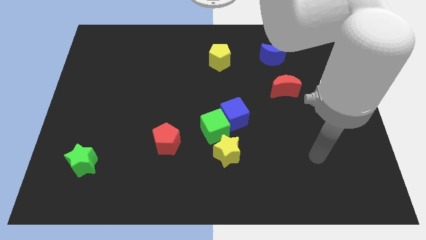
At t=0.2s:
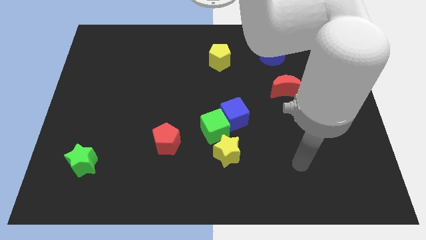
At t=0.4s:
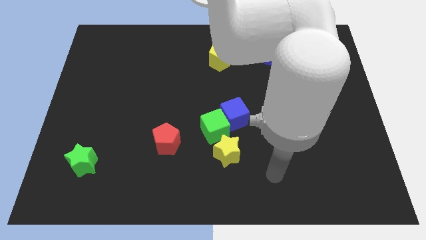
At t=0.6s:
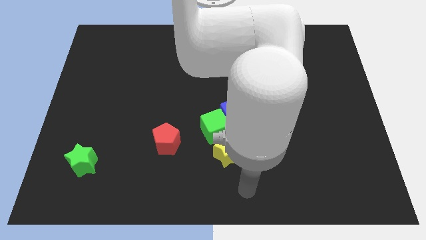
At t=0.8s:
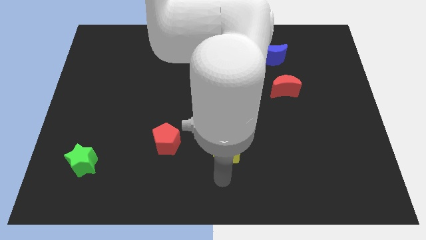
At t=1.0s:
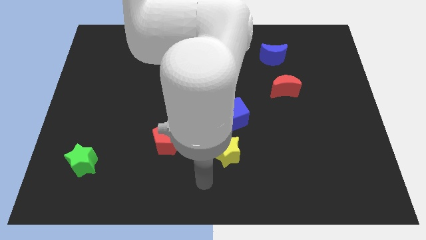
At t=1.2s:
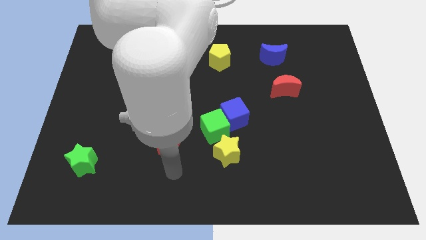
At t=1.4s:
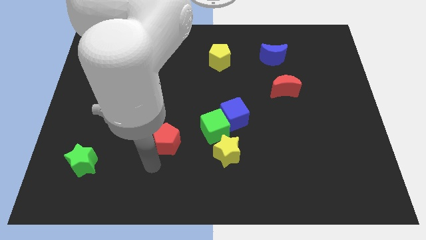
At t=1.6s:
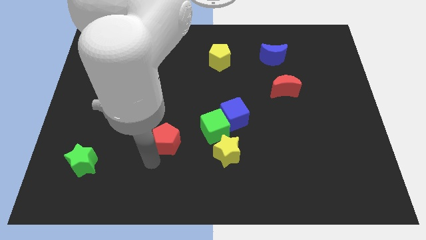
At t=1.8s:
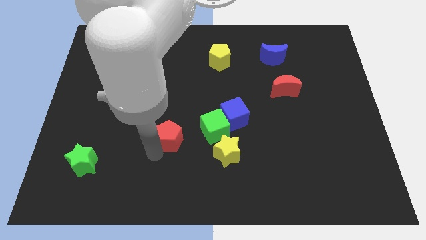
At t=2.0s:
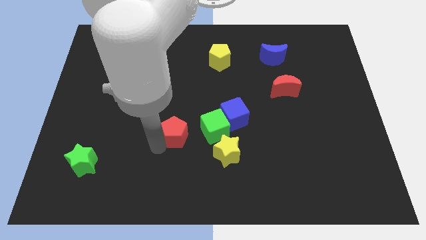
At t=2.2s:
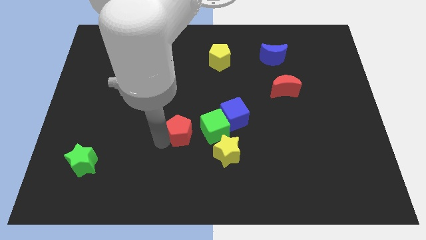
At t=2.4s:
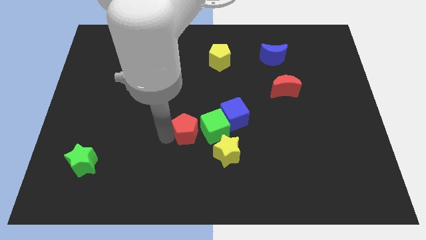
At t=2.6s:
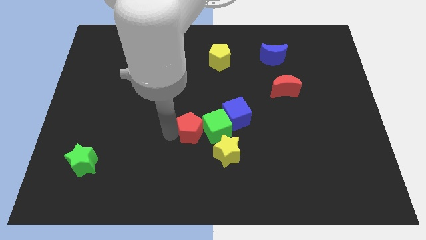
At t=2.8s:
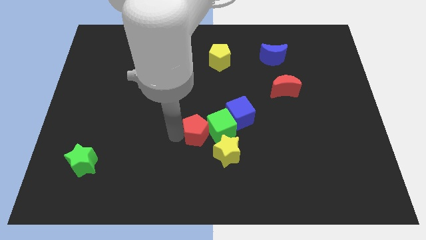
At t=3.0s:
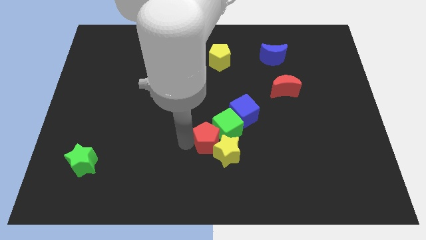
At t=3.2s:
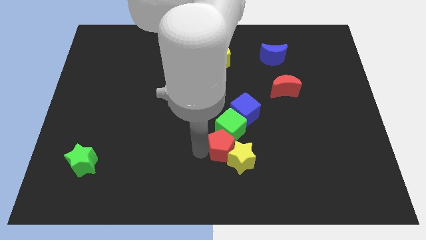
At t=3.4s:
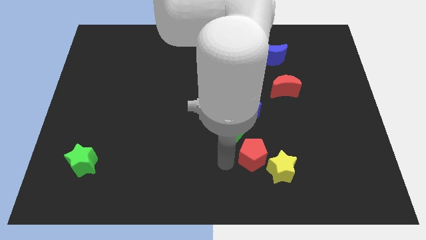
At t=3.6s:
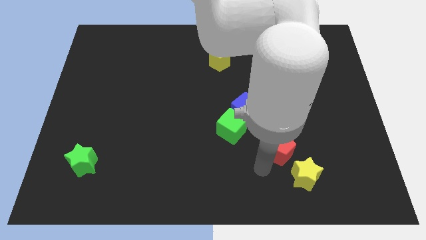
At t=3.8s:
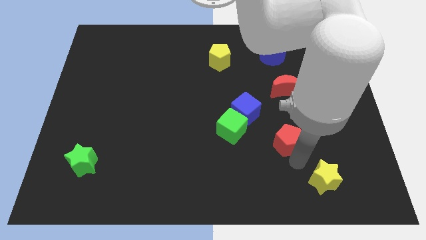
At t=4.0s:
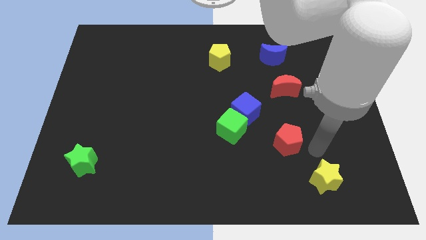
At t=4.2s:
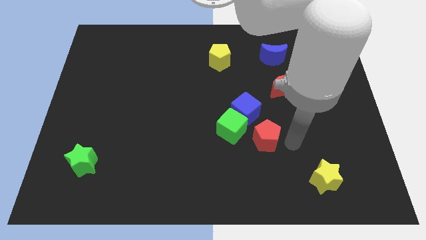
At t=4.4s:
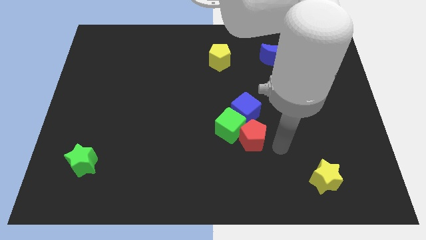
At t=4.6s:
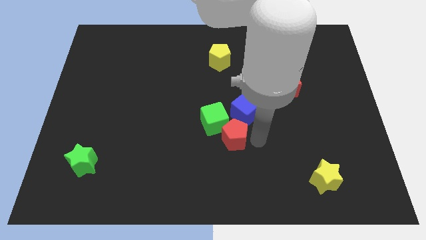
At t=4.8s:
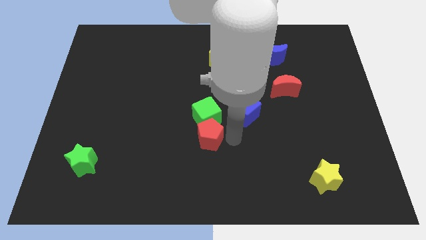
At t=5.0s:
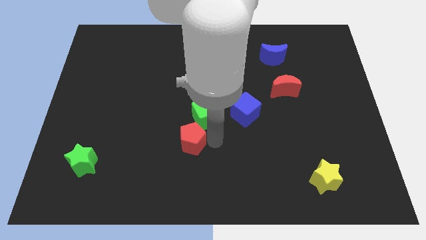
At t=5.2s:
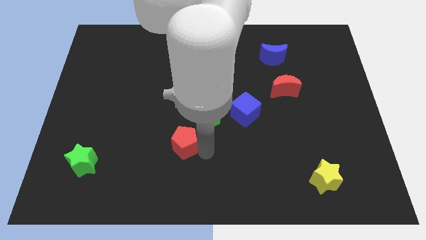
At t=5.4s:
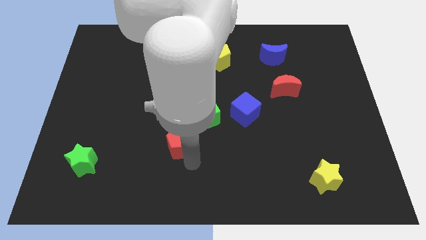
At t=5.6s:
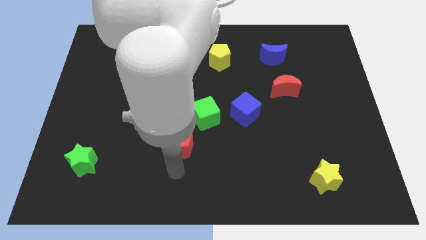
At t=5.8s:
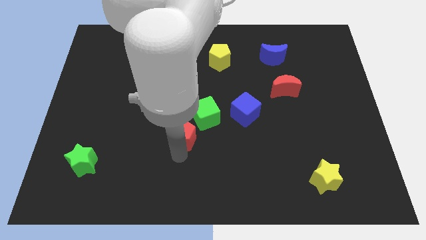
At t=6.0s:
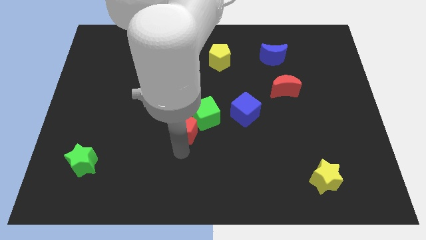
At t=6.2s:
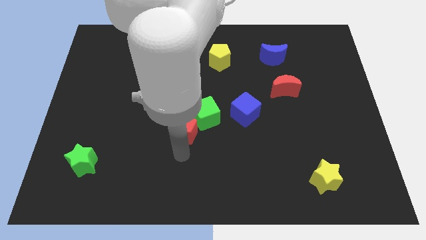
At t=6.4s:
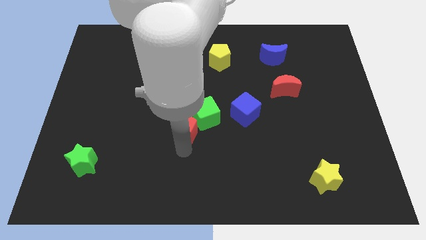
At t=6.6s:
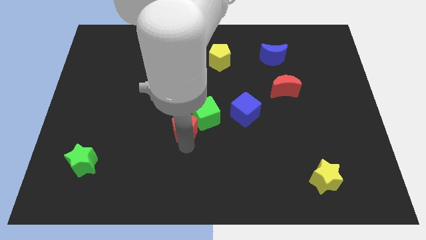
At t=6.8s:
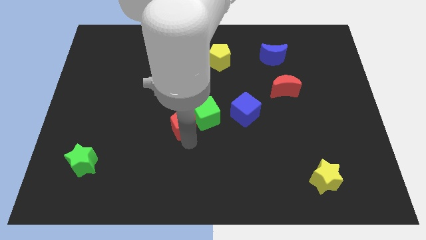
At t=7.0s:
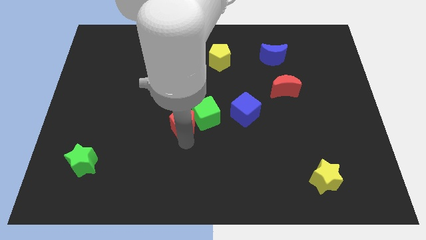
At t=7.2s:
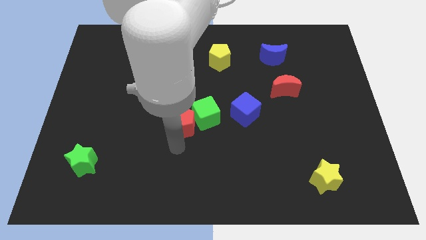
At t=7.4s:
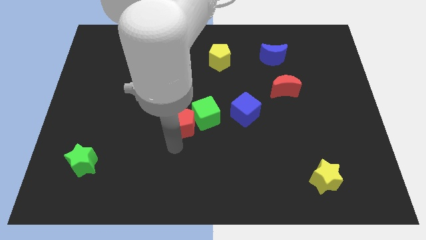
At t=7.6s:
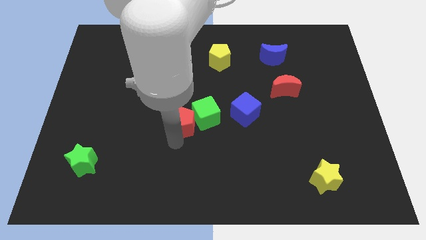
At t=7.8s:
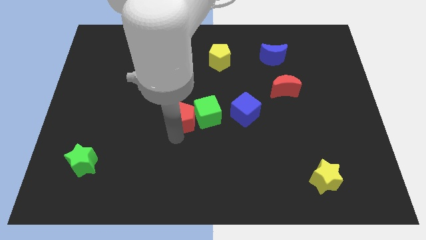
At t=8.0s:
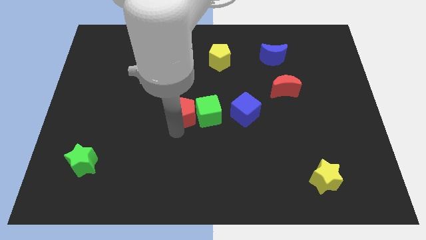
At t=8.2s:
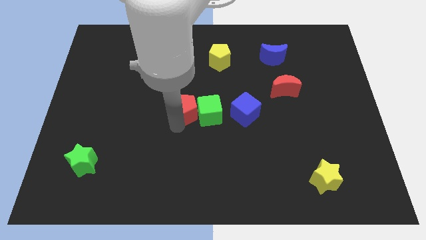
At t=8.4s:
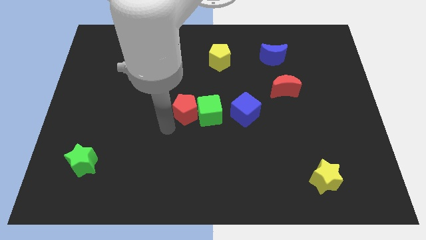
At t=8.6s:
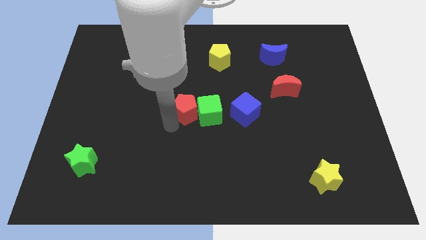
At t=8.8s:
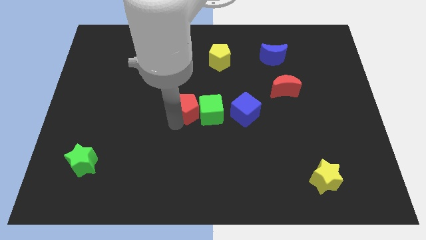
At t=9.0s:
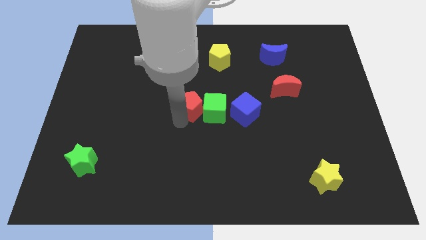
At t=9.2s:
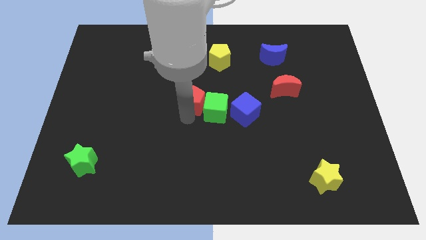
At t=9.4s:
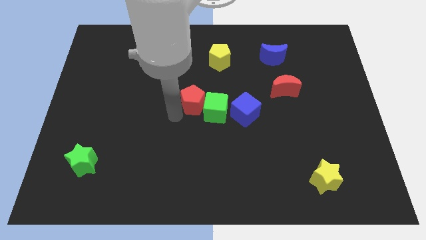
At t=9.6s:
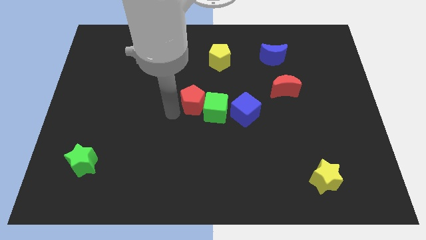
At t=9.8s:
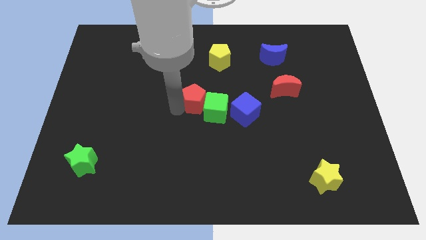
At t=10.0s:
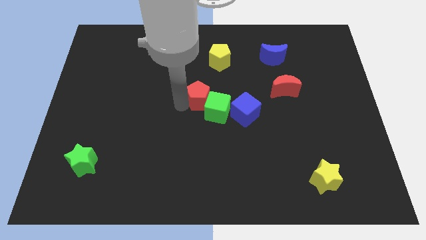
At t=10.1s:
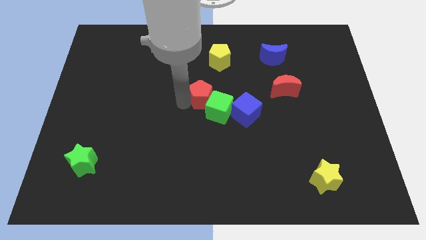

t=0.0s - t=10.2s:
slide the red pentagon below the yellow pentagon

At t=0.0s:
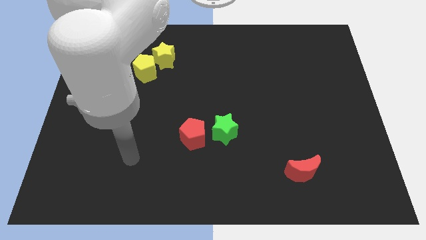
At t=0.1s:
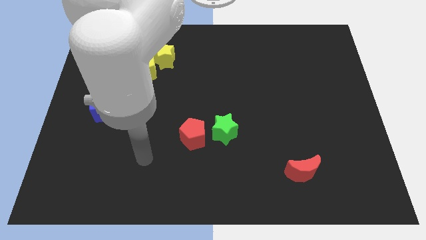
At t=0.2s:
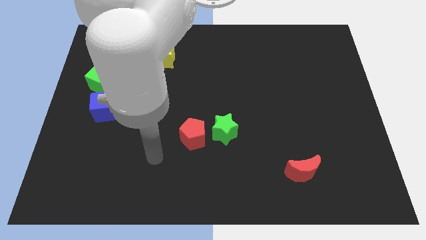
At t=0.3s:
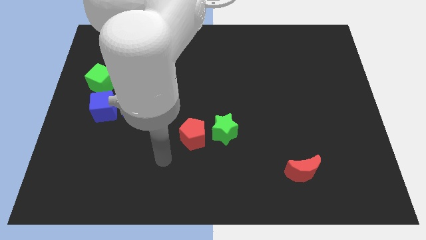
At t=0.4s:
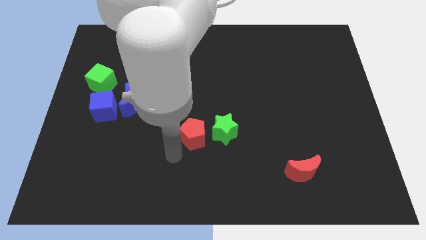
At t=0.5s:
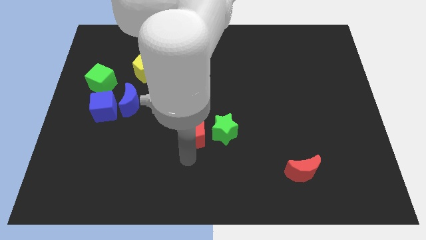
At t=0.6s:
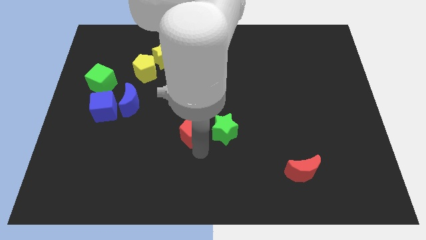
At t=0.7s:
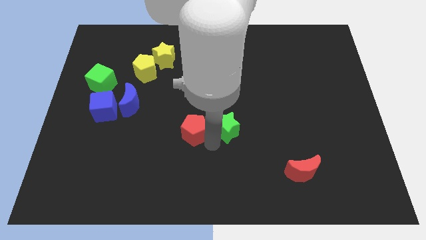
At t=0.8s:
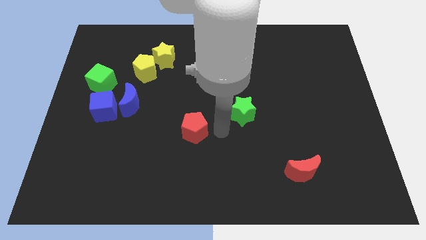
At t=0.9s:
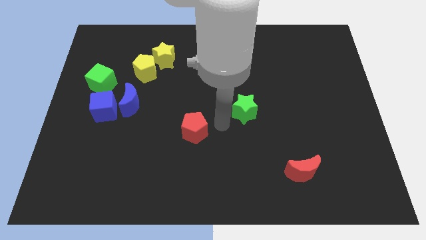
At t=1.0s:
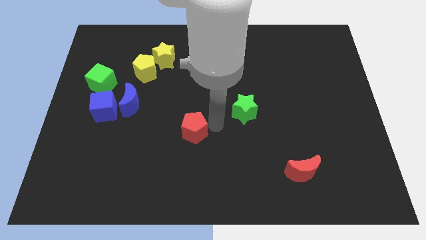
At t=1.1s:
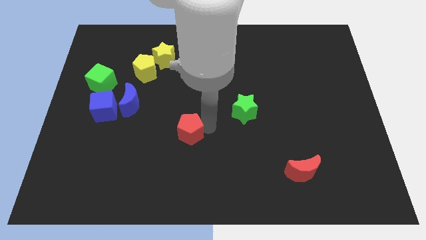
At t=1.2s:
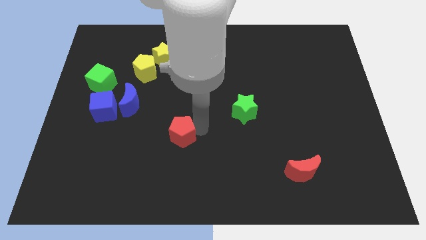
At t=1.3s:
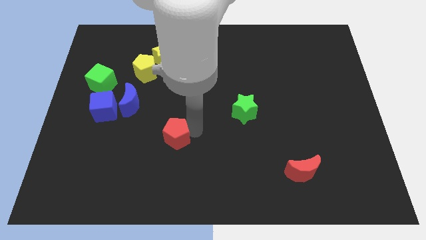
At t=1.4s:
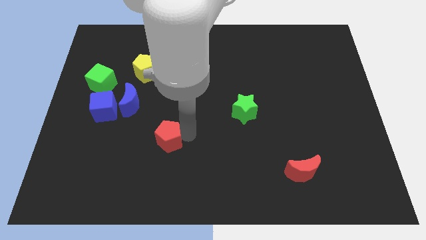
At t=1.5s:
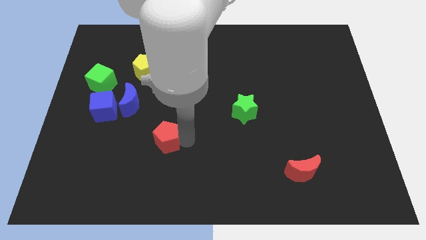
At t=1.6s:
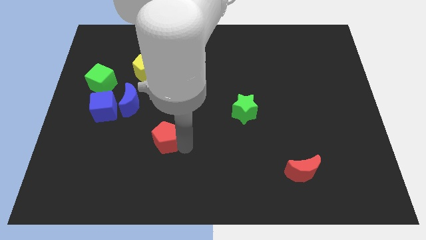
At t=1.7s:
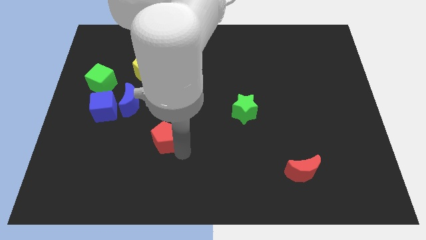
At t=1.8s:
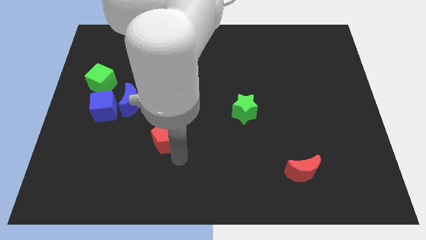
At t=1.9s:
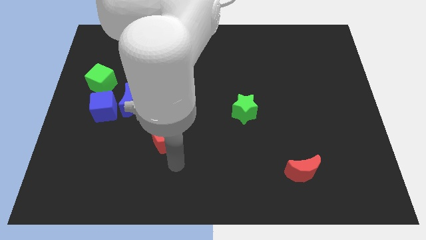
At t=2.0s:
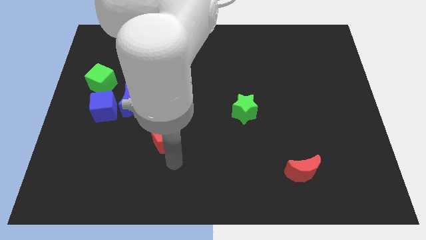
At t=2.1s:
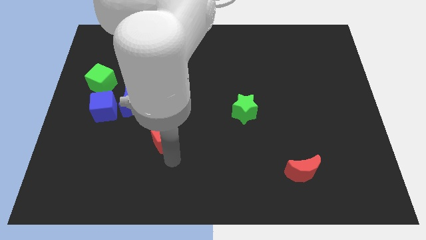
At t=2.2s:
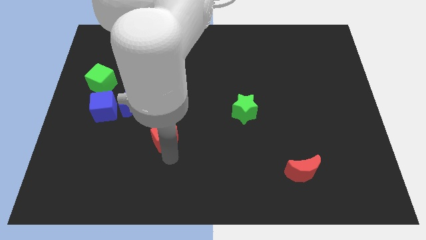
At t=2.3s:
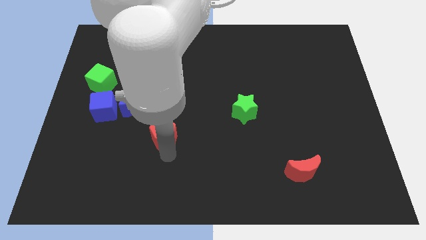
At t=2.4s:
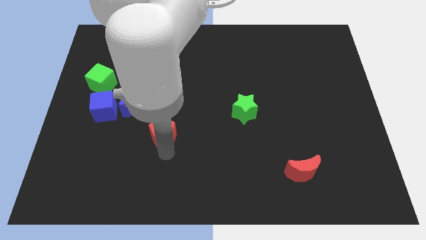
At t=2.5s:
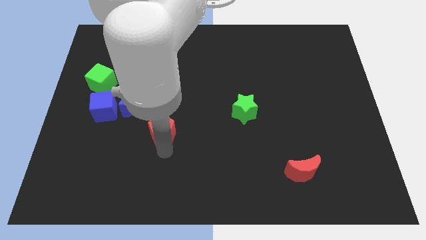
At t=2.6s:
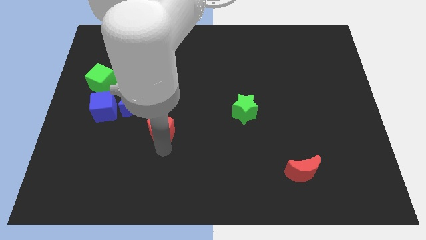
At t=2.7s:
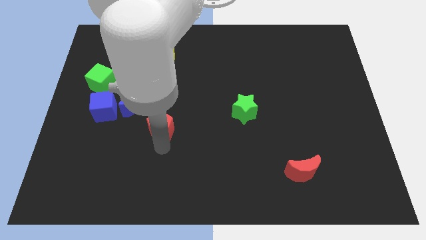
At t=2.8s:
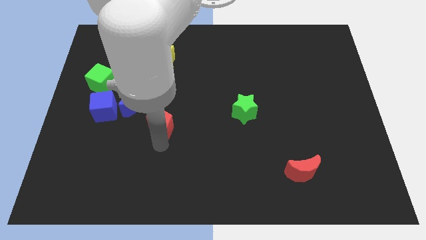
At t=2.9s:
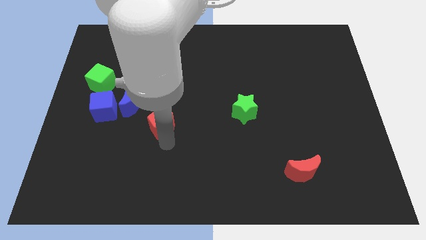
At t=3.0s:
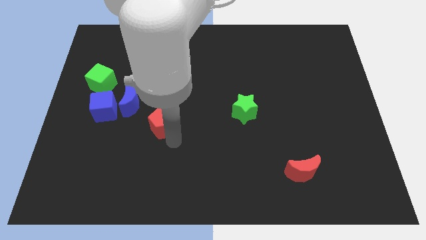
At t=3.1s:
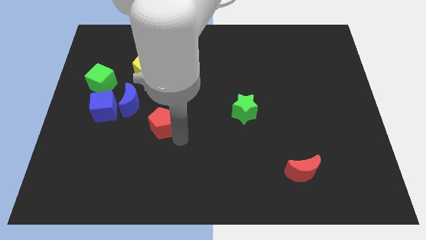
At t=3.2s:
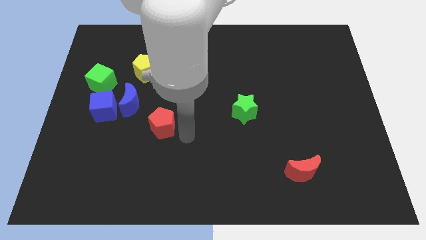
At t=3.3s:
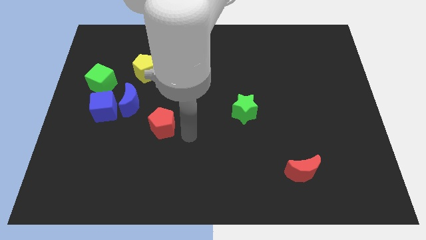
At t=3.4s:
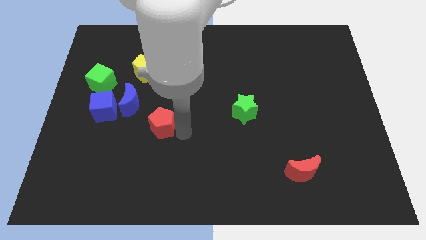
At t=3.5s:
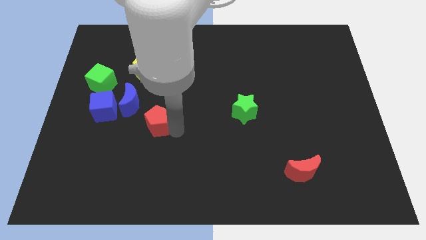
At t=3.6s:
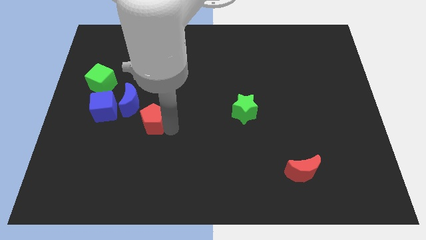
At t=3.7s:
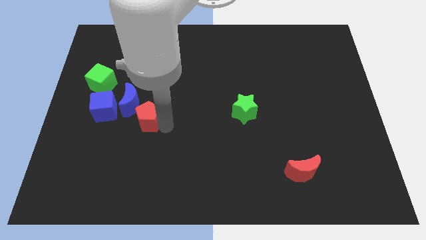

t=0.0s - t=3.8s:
move the red pentagon to the bottom side of the yellow pentagon
